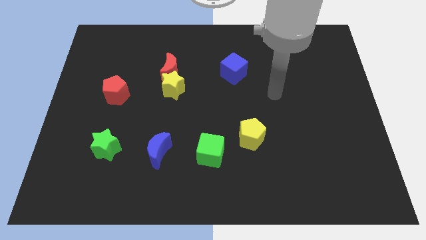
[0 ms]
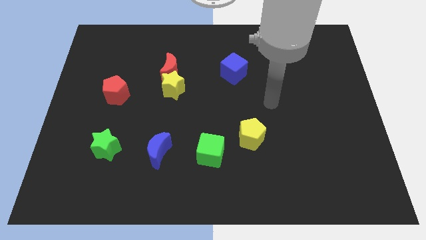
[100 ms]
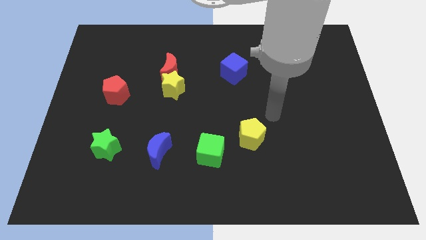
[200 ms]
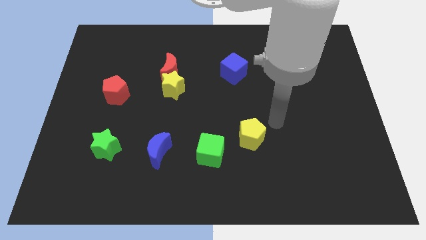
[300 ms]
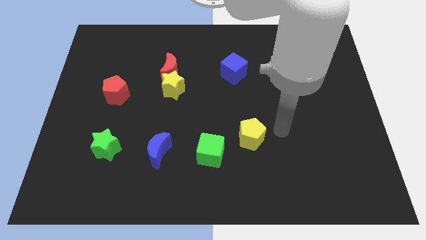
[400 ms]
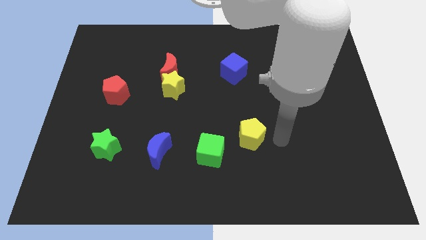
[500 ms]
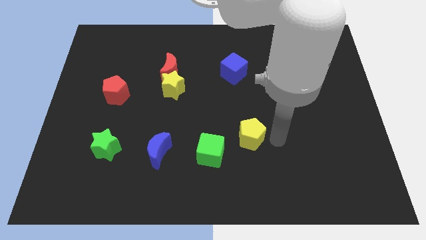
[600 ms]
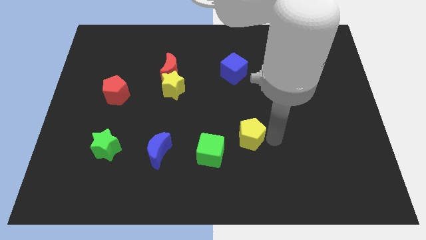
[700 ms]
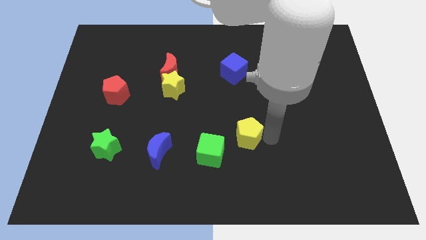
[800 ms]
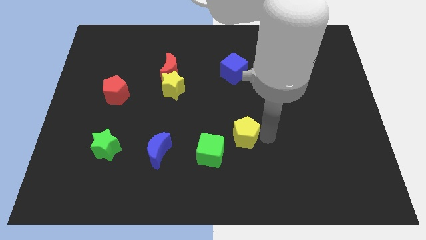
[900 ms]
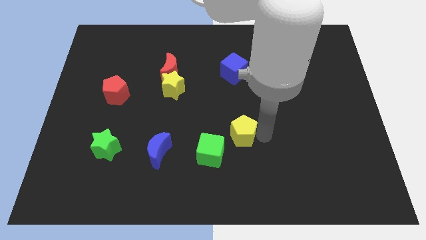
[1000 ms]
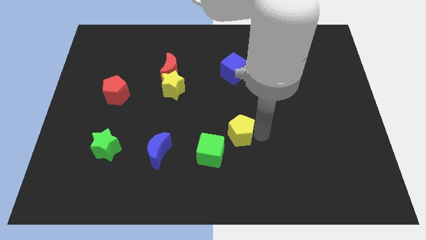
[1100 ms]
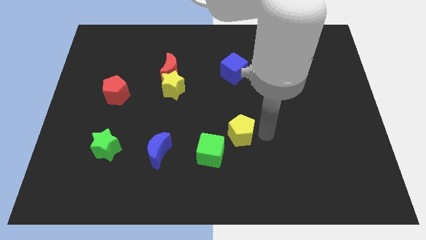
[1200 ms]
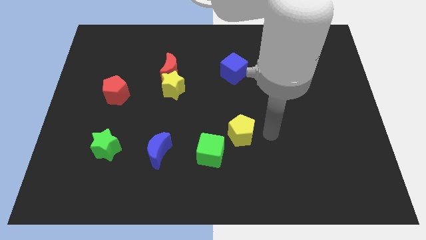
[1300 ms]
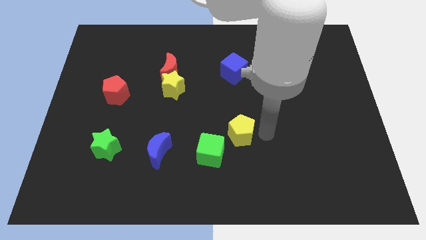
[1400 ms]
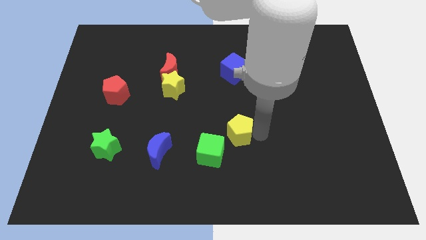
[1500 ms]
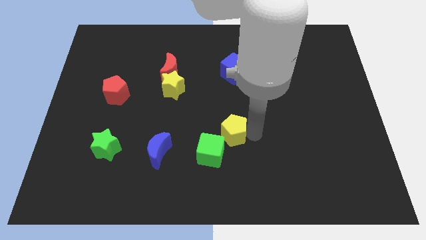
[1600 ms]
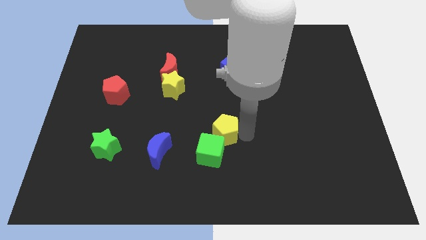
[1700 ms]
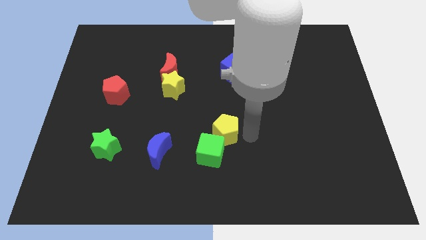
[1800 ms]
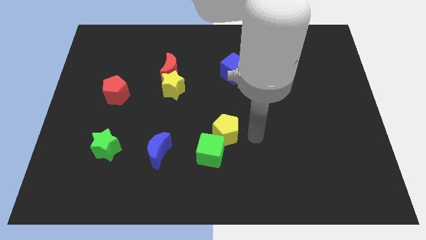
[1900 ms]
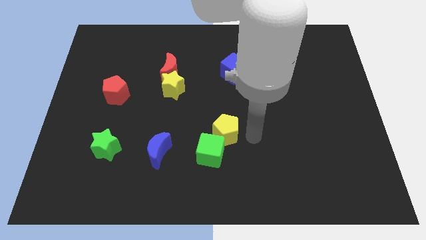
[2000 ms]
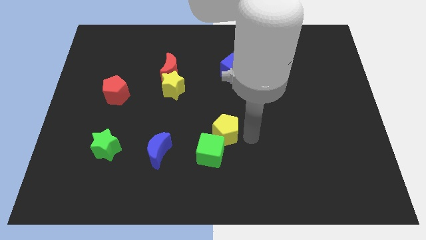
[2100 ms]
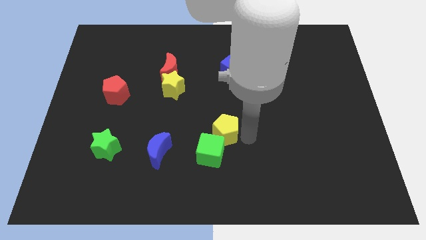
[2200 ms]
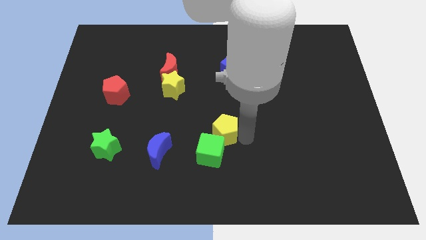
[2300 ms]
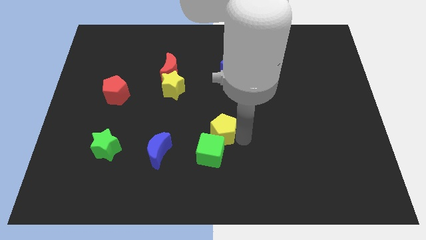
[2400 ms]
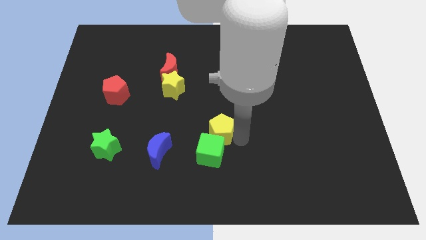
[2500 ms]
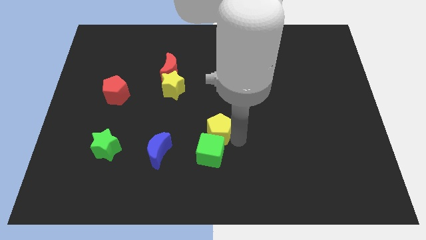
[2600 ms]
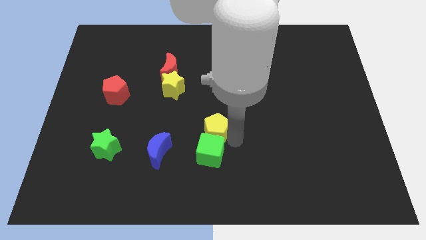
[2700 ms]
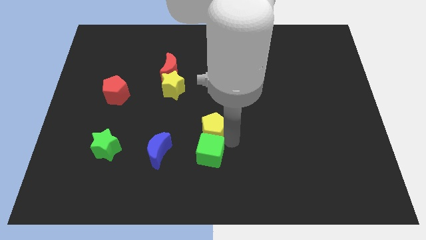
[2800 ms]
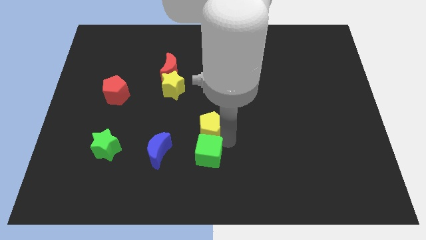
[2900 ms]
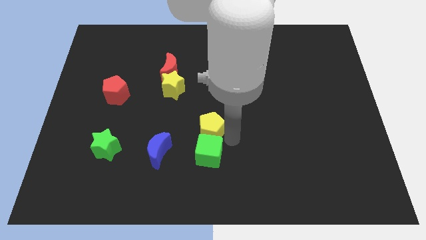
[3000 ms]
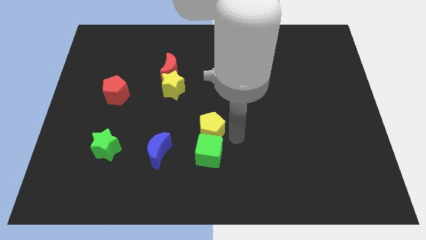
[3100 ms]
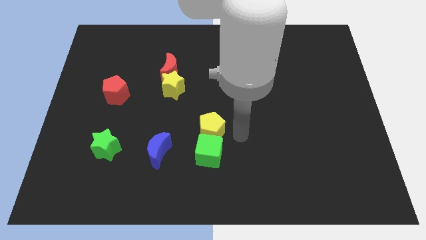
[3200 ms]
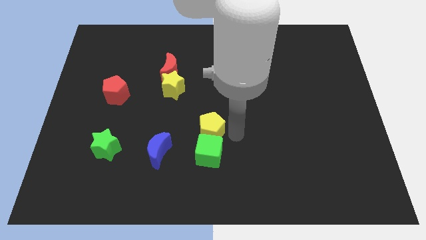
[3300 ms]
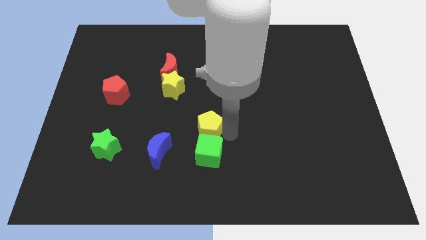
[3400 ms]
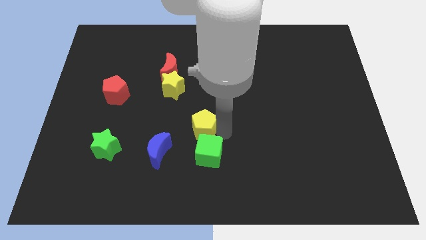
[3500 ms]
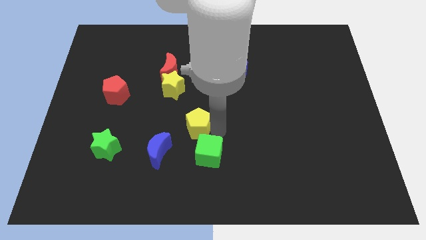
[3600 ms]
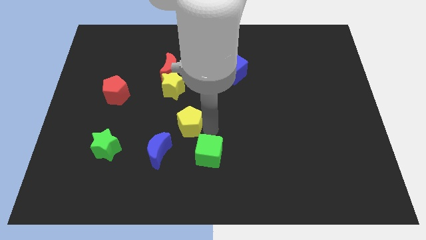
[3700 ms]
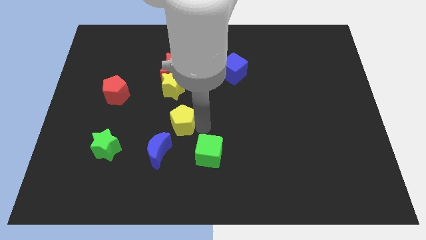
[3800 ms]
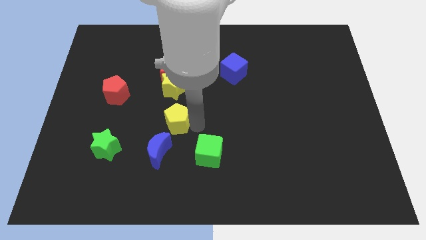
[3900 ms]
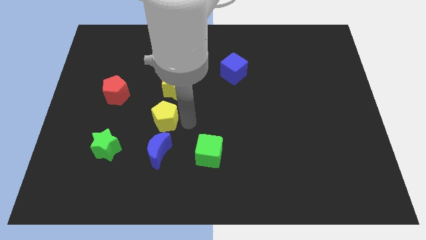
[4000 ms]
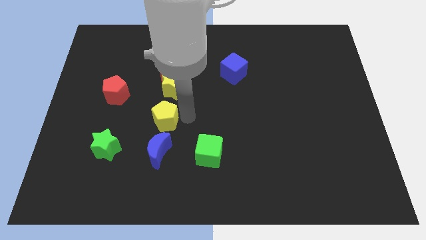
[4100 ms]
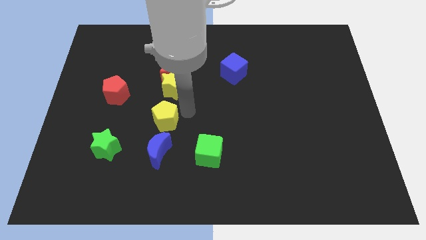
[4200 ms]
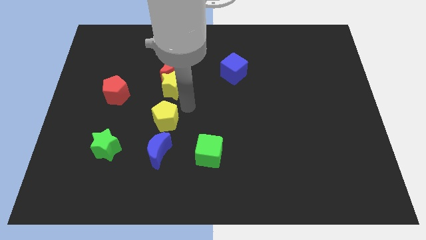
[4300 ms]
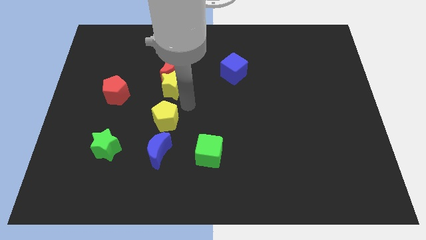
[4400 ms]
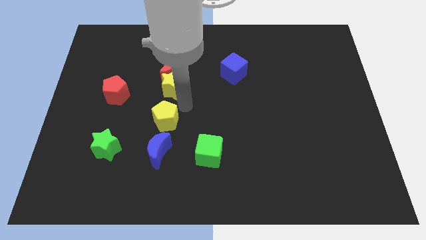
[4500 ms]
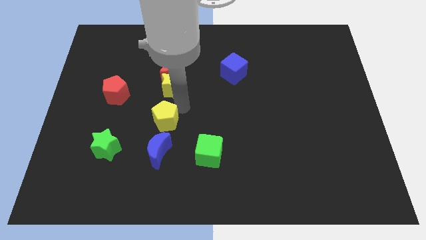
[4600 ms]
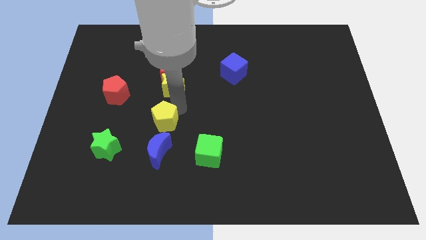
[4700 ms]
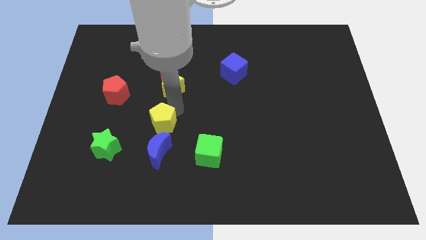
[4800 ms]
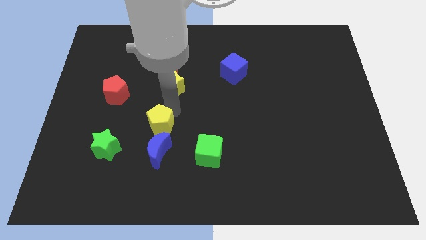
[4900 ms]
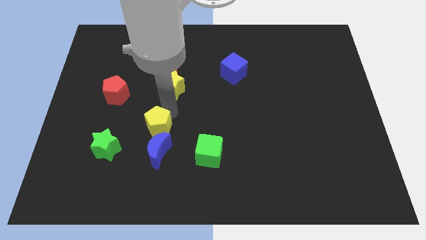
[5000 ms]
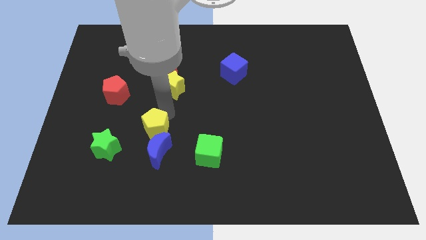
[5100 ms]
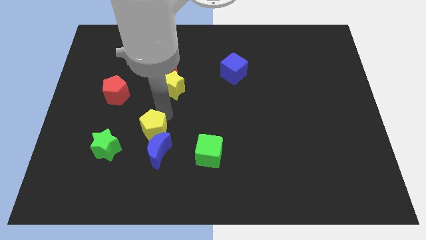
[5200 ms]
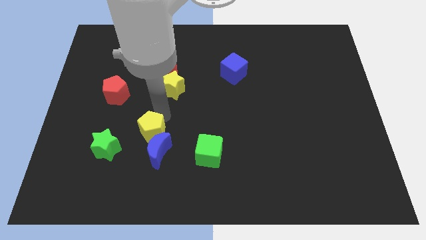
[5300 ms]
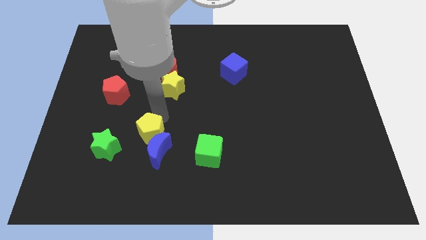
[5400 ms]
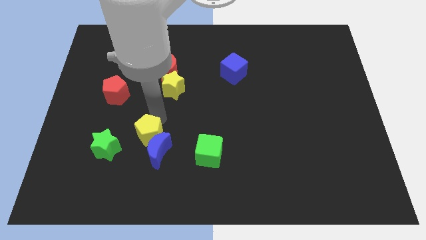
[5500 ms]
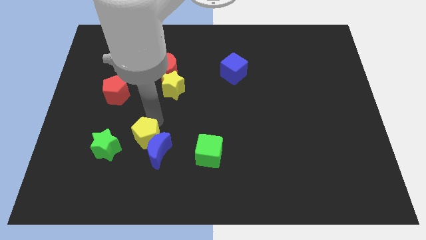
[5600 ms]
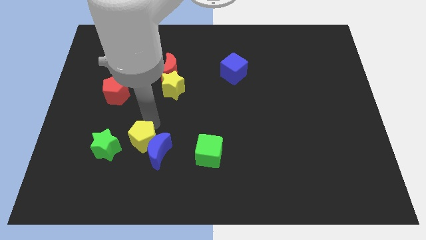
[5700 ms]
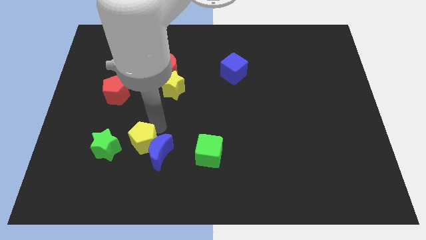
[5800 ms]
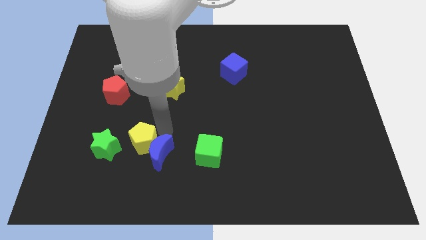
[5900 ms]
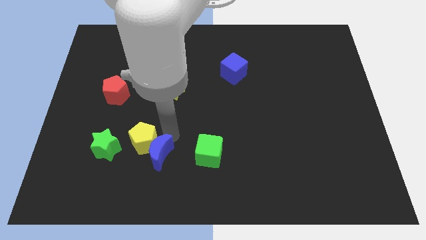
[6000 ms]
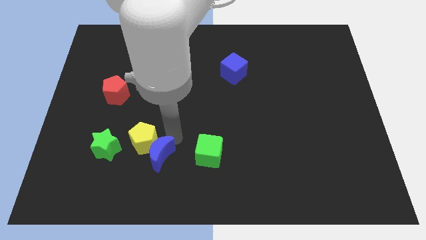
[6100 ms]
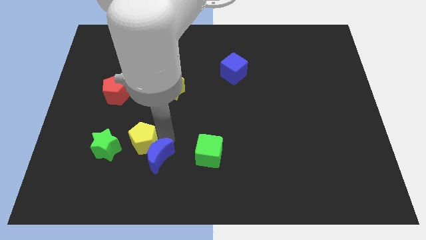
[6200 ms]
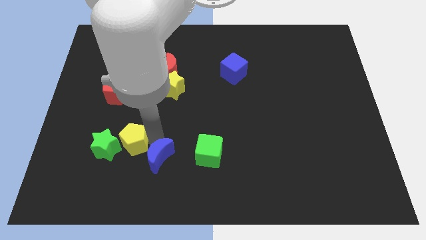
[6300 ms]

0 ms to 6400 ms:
move the yellow pentagon to the green star

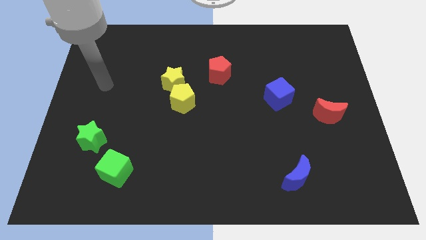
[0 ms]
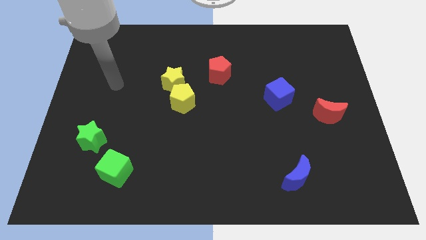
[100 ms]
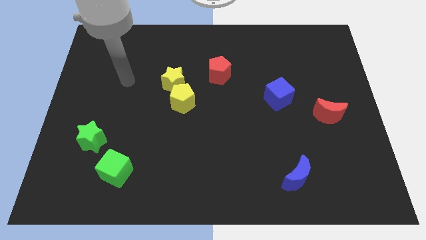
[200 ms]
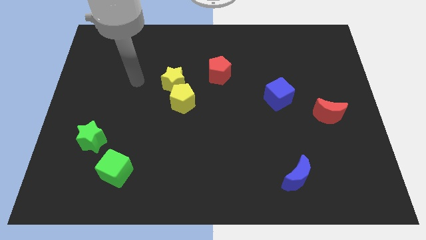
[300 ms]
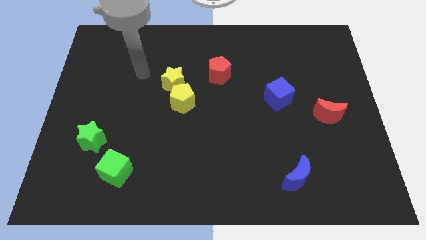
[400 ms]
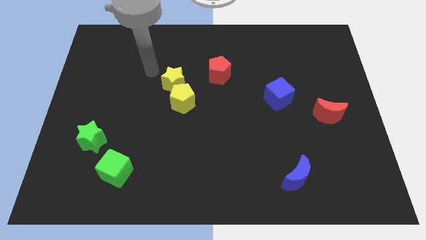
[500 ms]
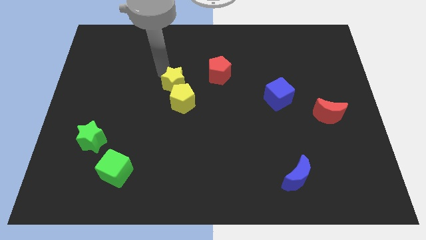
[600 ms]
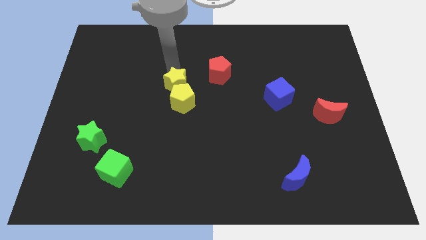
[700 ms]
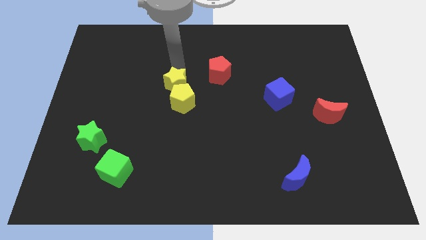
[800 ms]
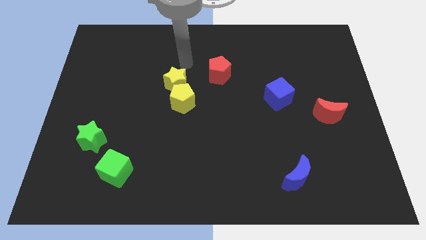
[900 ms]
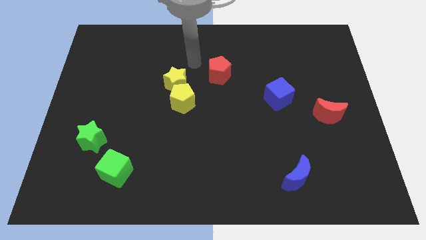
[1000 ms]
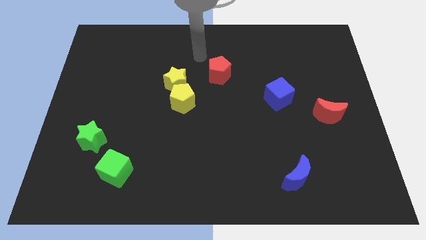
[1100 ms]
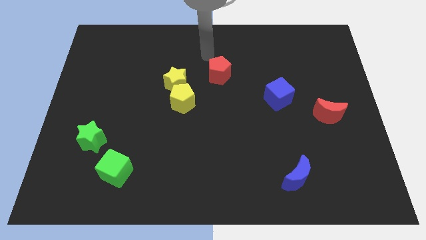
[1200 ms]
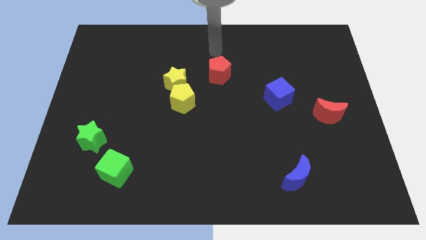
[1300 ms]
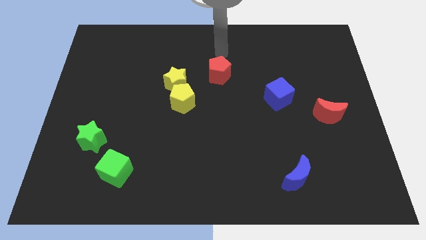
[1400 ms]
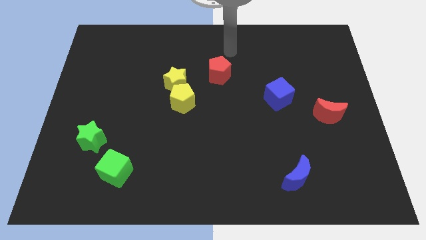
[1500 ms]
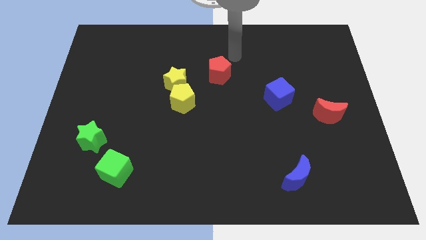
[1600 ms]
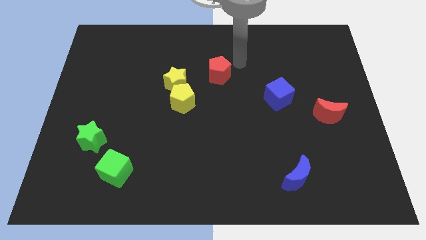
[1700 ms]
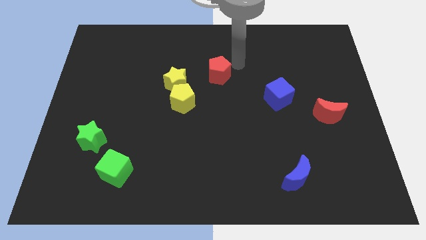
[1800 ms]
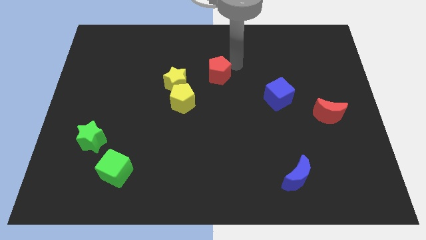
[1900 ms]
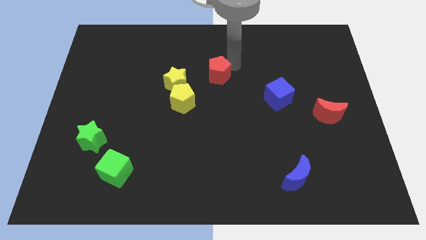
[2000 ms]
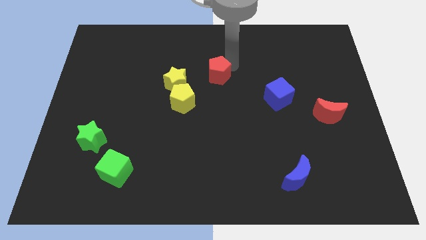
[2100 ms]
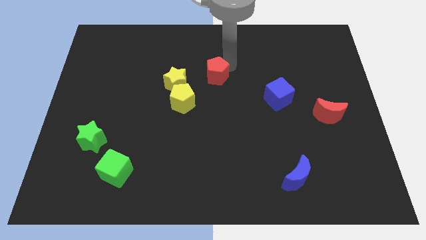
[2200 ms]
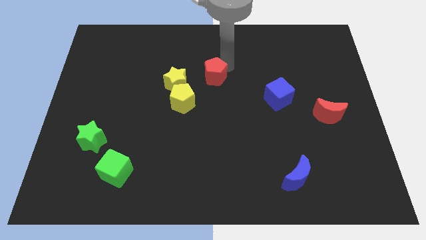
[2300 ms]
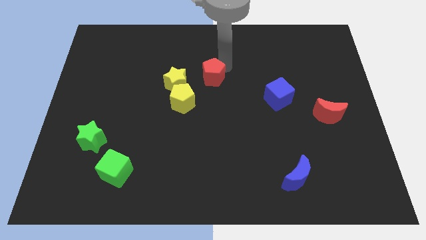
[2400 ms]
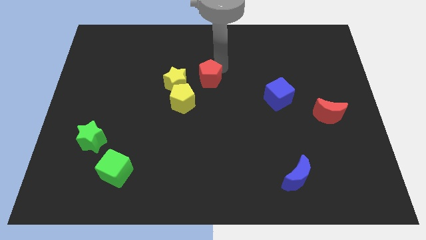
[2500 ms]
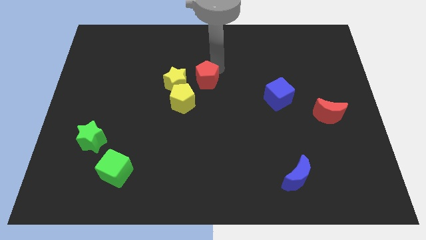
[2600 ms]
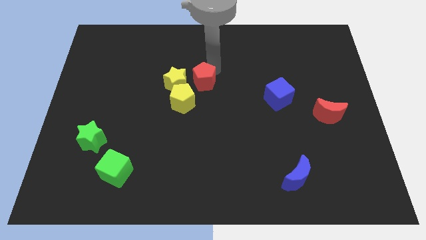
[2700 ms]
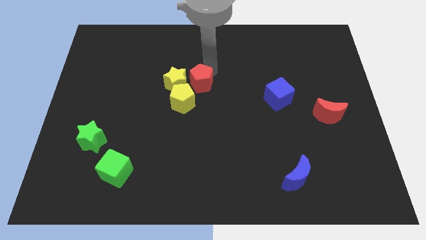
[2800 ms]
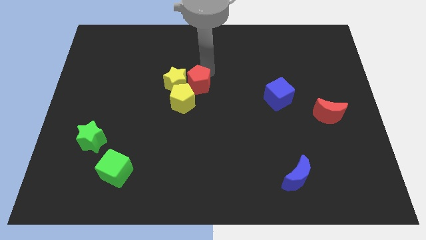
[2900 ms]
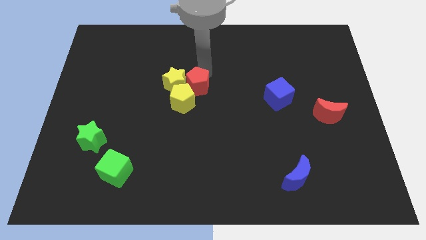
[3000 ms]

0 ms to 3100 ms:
push the red pentagon next to the yellow pentagon
